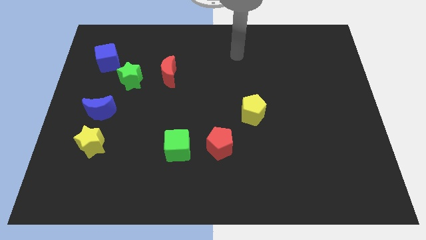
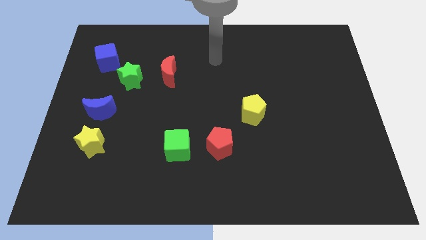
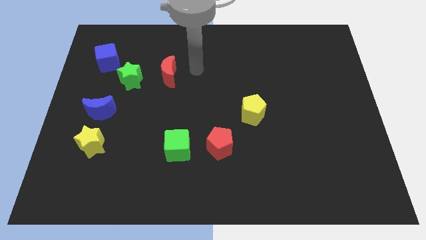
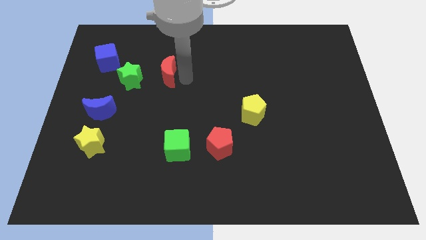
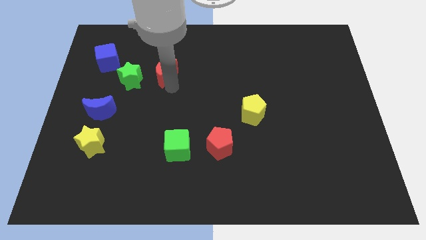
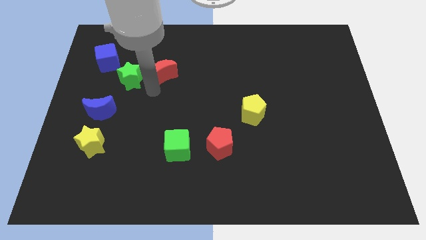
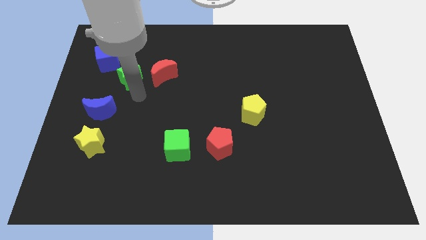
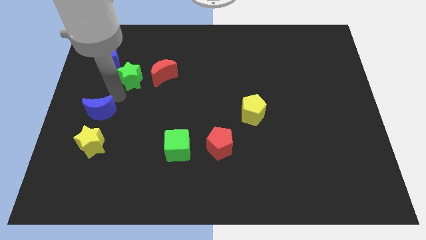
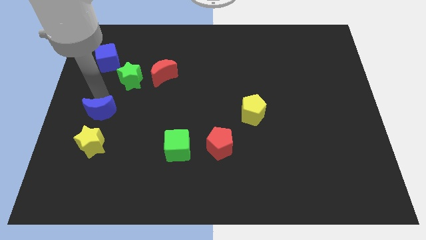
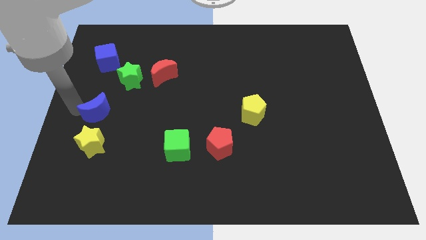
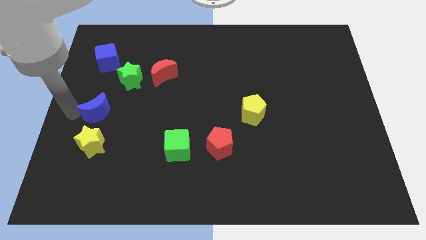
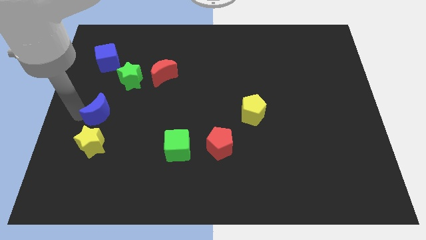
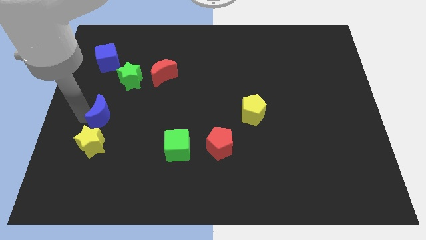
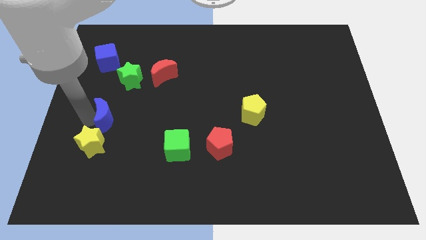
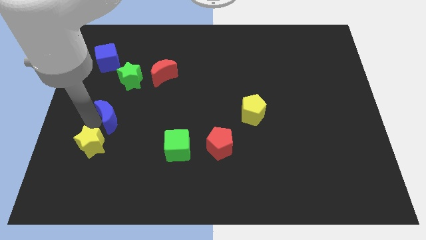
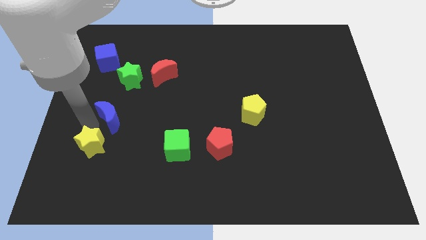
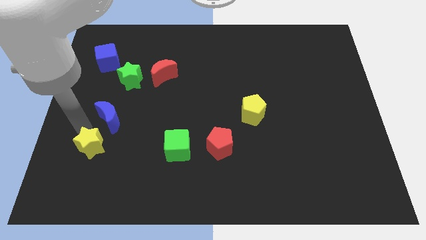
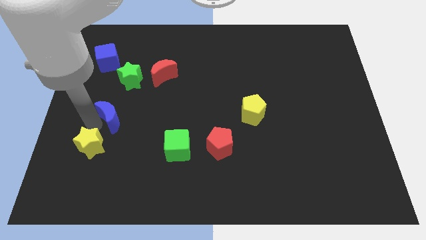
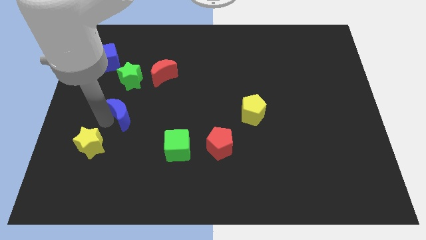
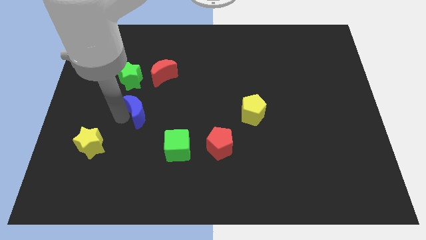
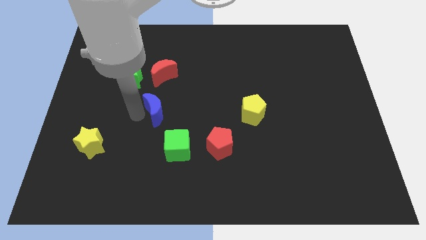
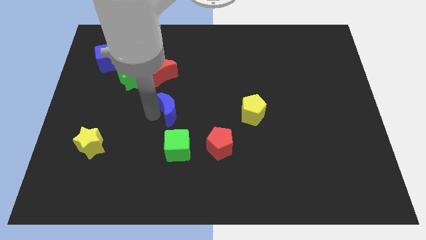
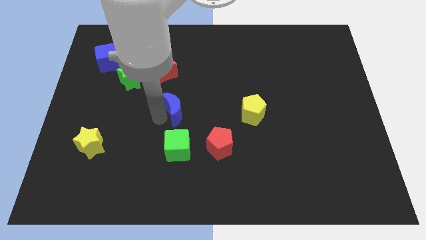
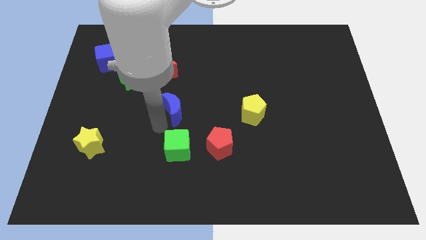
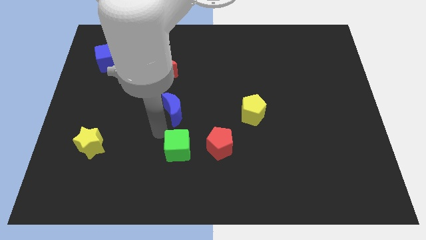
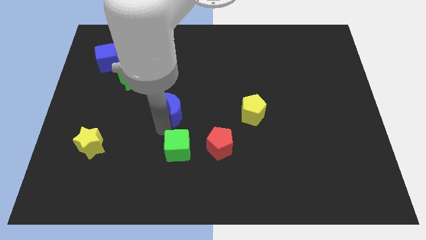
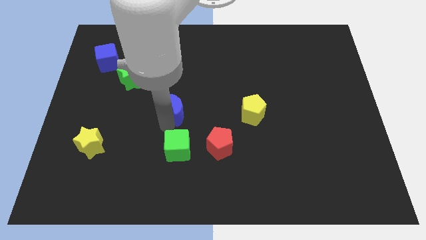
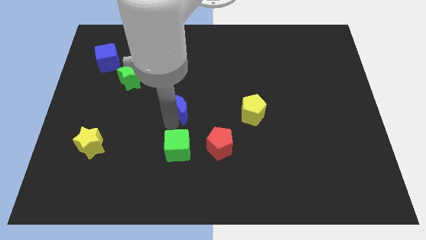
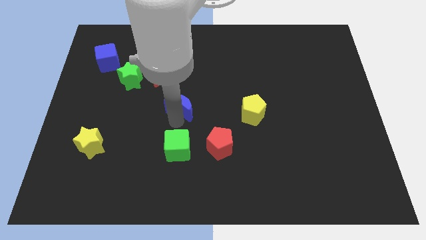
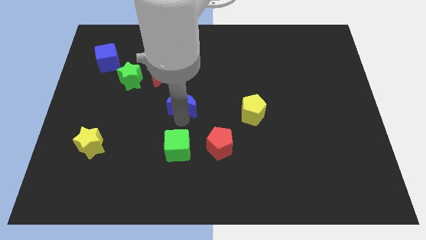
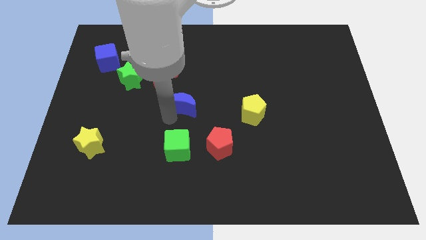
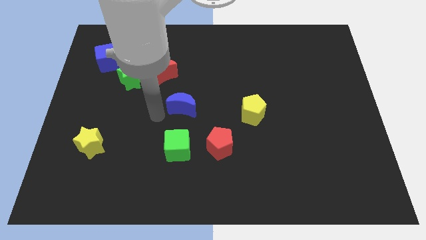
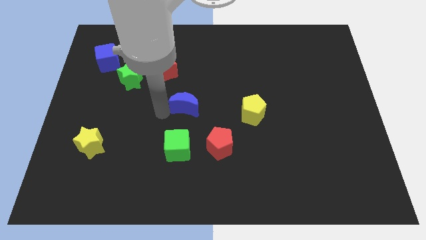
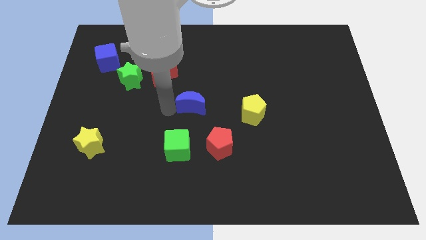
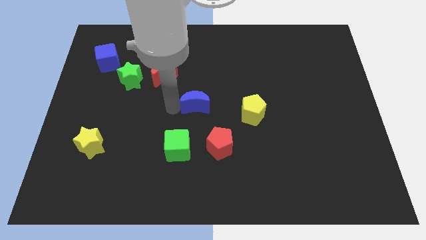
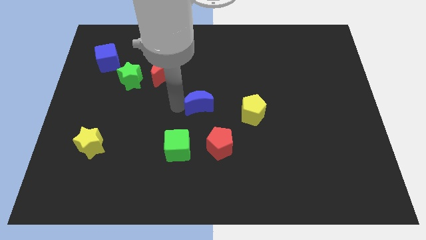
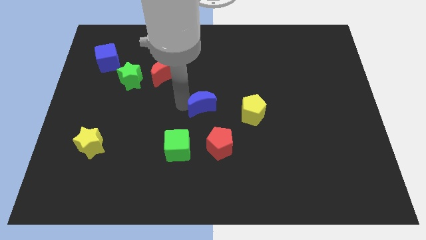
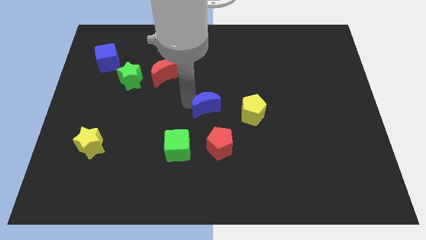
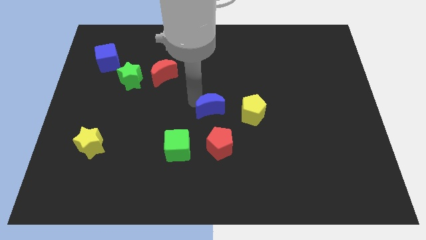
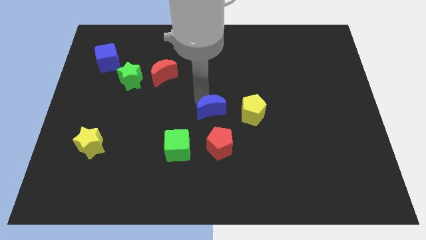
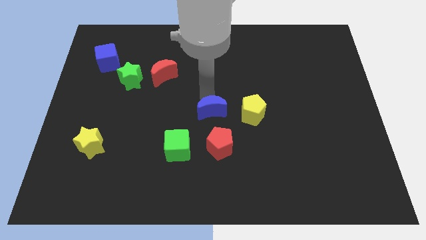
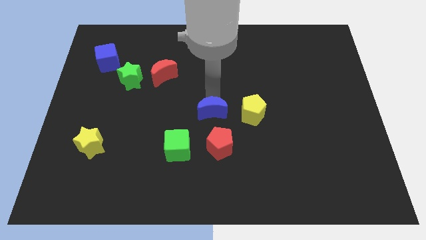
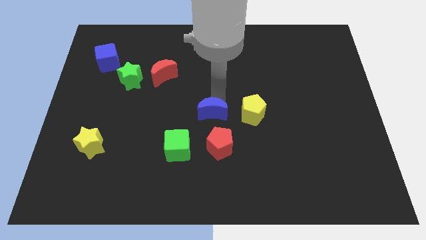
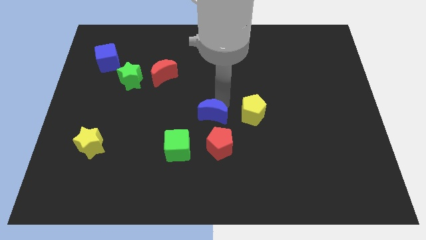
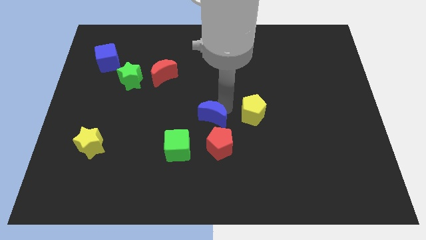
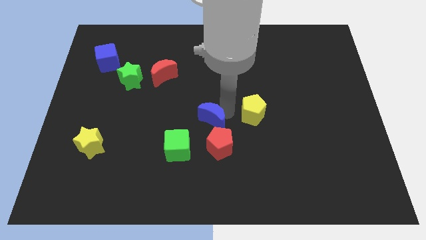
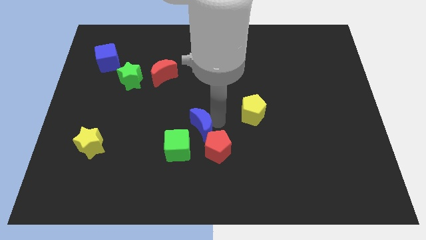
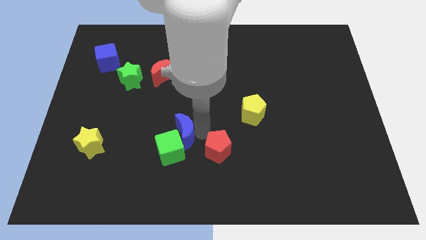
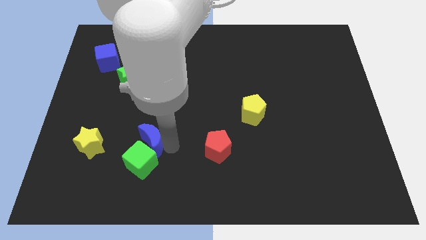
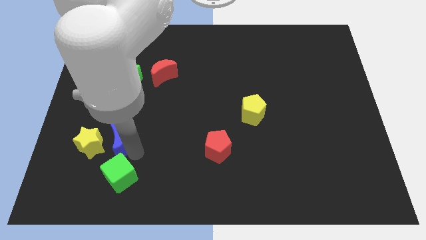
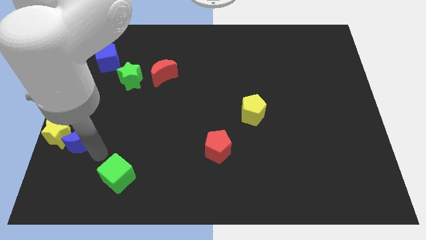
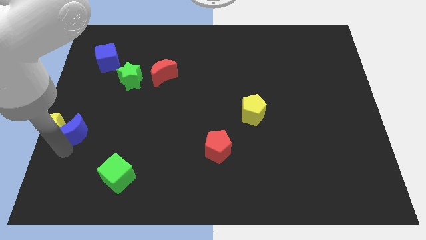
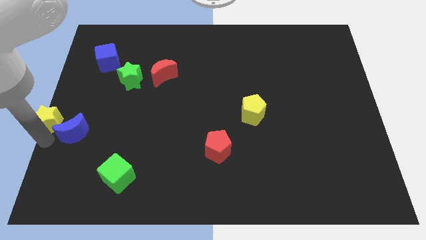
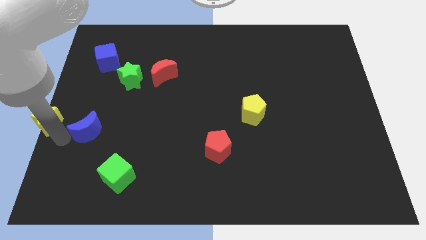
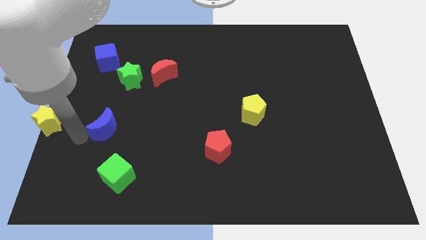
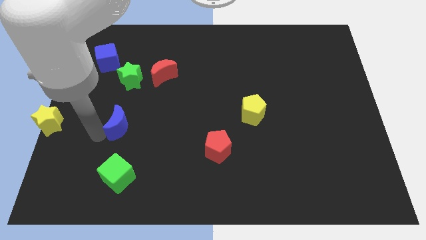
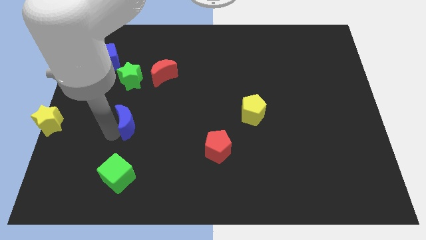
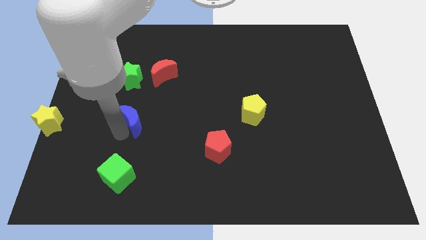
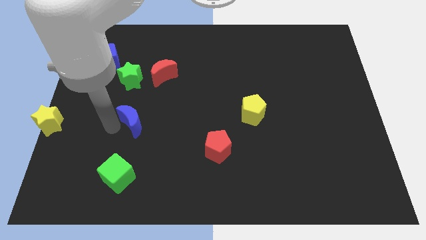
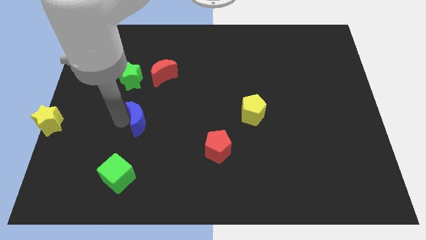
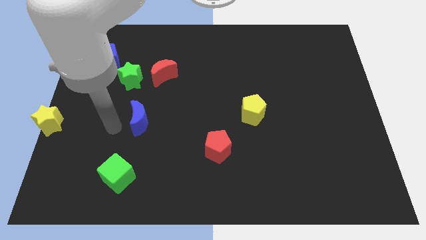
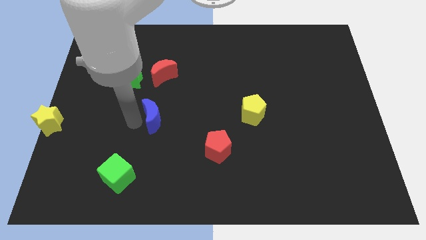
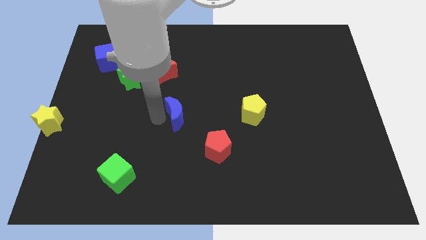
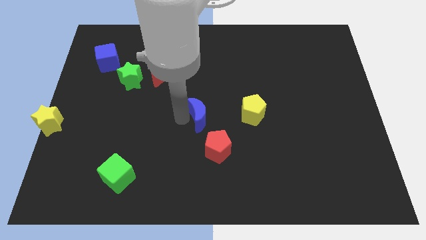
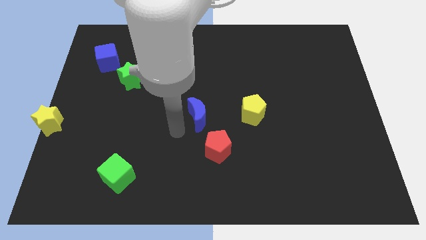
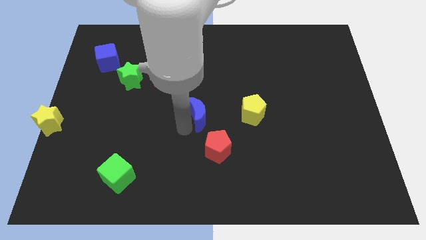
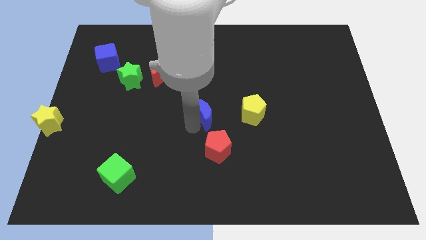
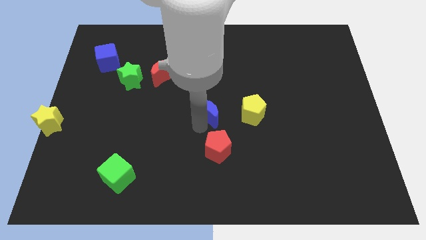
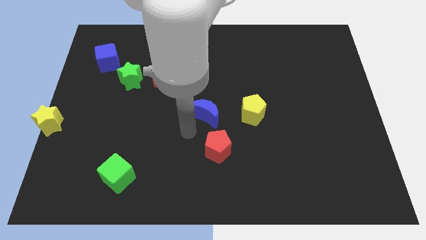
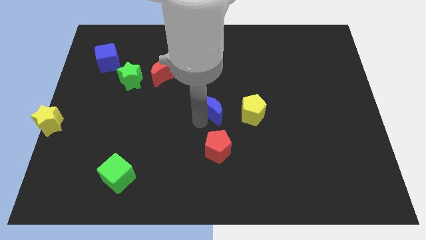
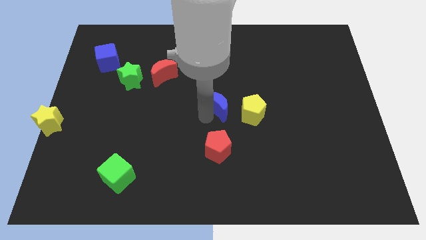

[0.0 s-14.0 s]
push the blue moon to the top left side of the yellow pentagon
